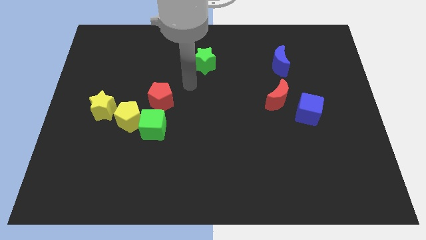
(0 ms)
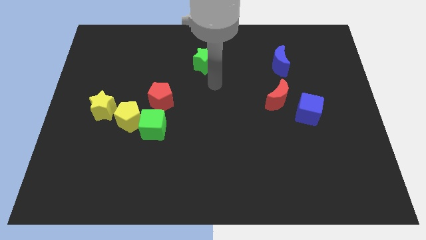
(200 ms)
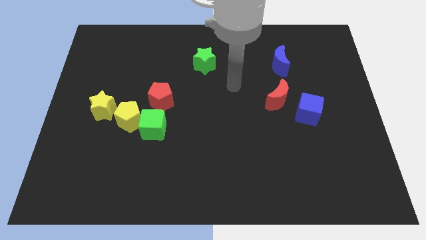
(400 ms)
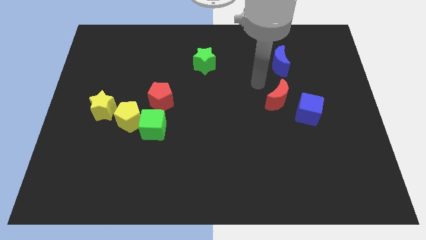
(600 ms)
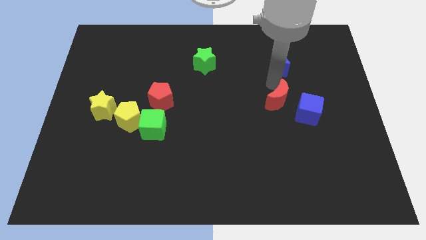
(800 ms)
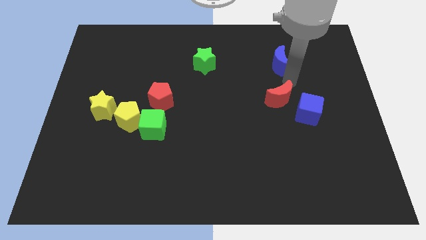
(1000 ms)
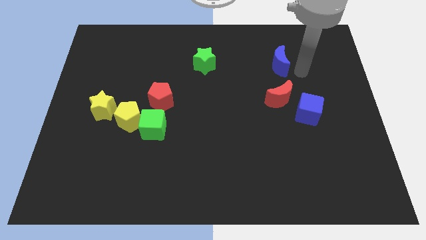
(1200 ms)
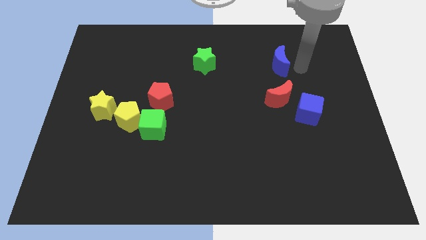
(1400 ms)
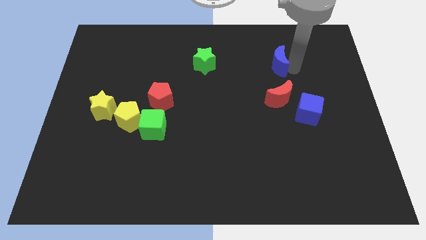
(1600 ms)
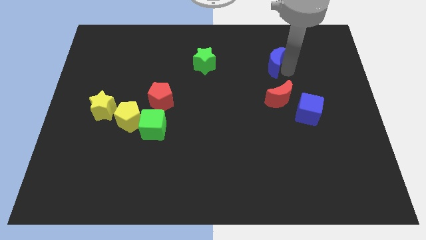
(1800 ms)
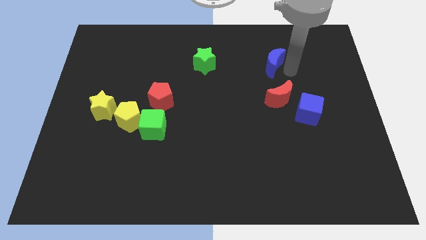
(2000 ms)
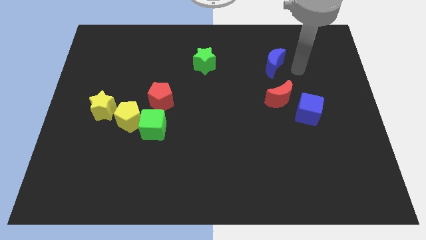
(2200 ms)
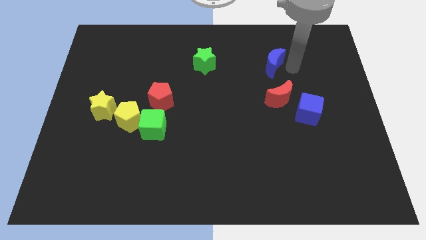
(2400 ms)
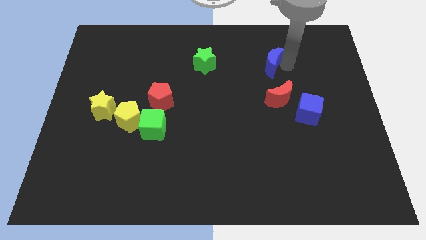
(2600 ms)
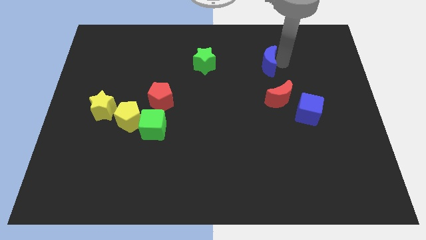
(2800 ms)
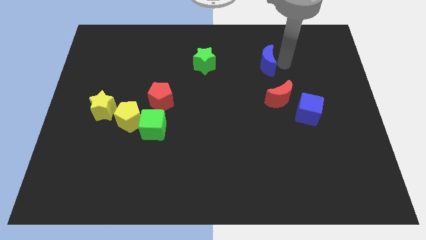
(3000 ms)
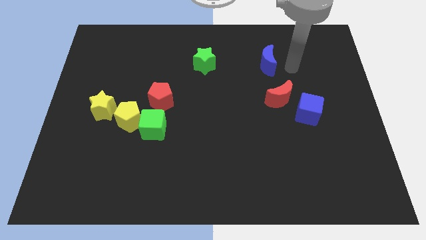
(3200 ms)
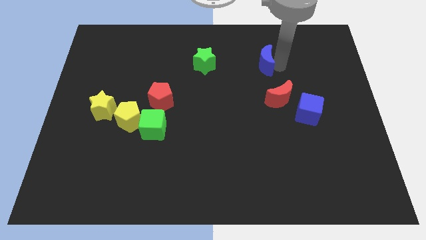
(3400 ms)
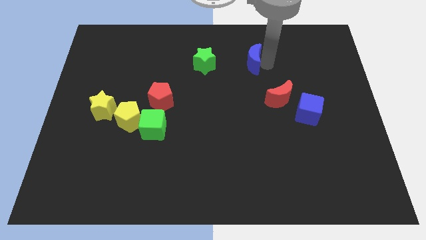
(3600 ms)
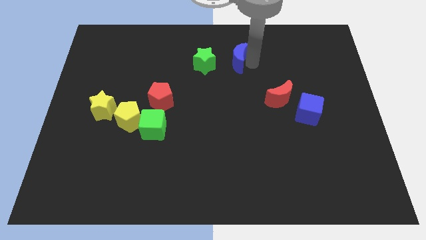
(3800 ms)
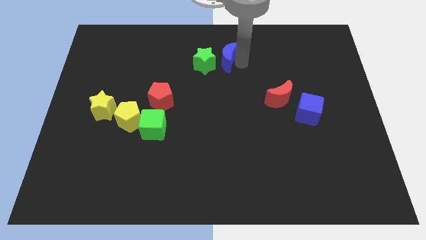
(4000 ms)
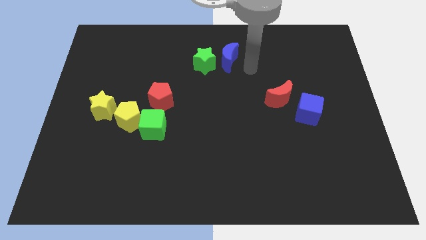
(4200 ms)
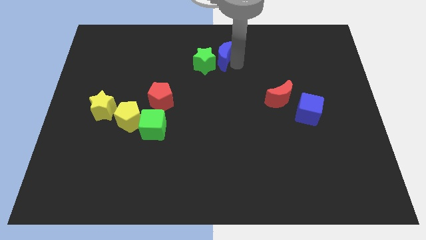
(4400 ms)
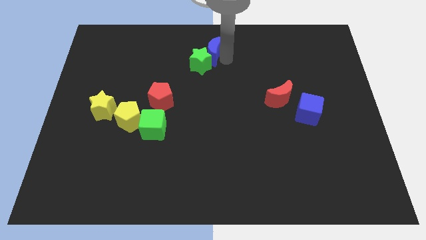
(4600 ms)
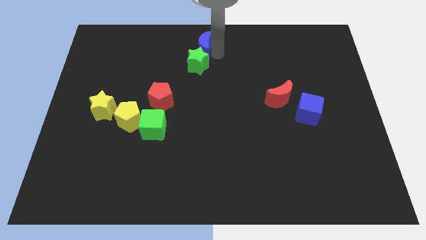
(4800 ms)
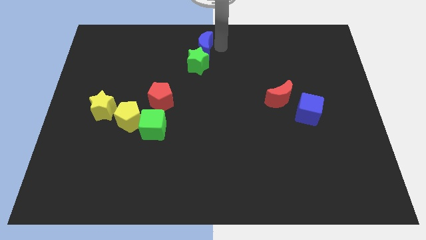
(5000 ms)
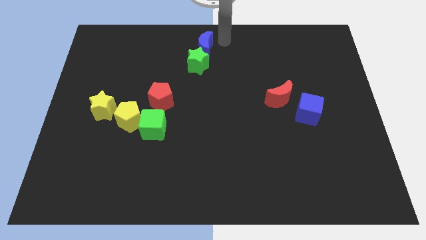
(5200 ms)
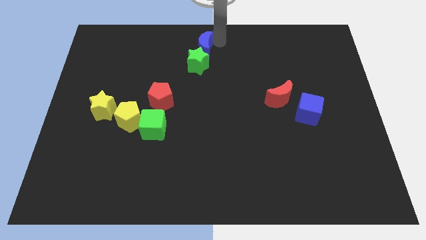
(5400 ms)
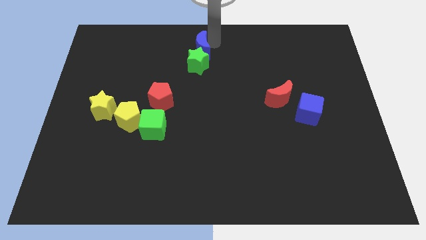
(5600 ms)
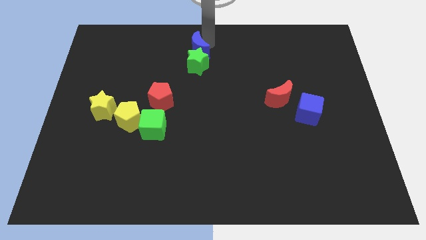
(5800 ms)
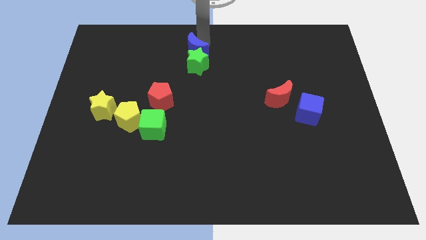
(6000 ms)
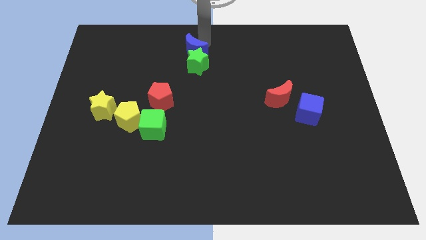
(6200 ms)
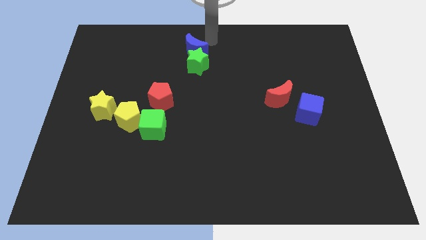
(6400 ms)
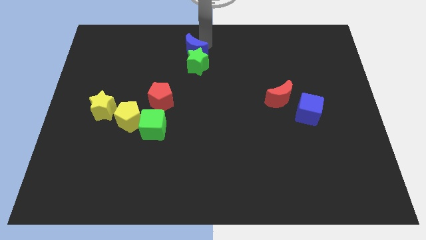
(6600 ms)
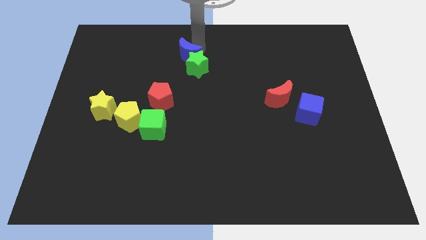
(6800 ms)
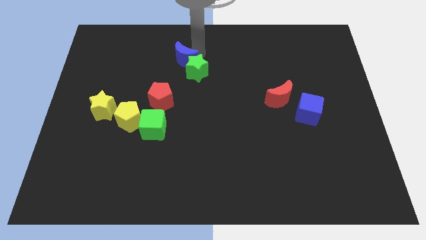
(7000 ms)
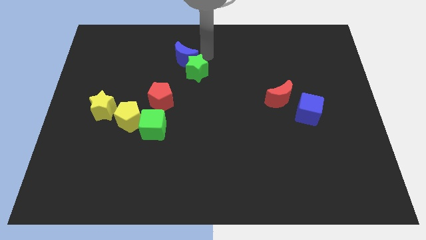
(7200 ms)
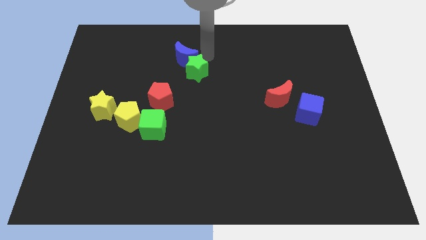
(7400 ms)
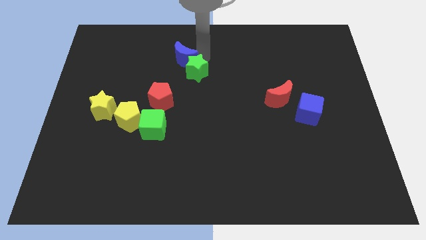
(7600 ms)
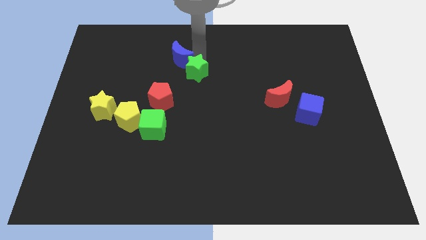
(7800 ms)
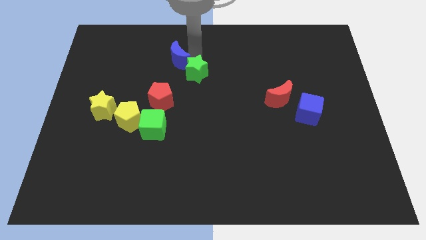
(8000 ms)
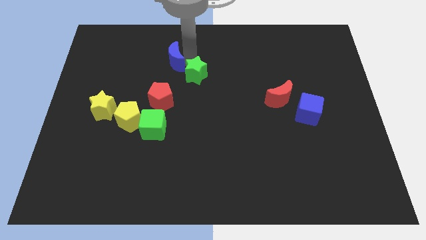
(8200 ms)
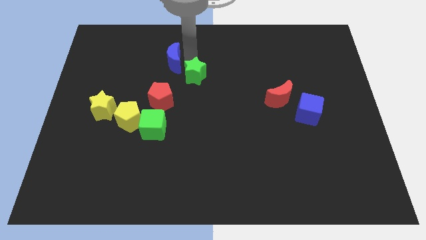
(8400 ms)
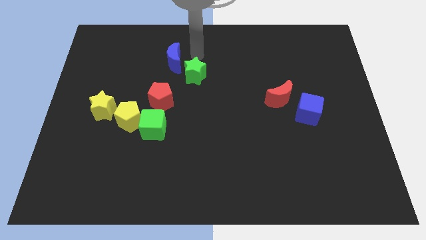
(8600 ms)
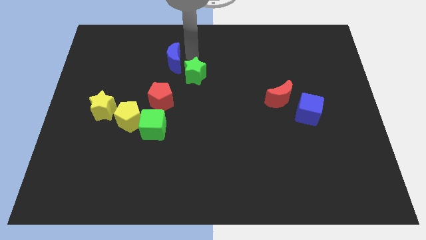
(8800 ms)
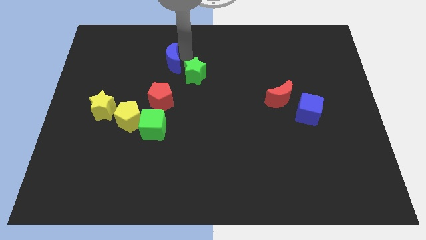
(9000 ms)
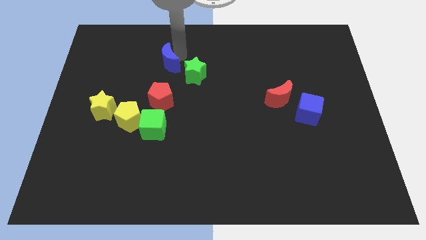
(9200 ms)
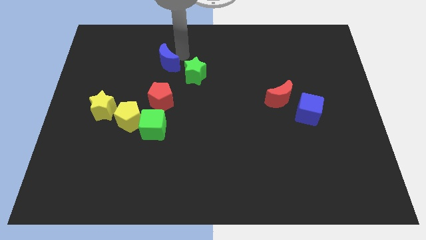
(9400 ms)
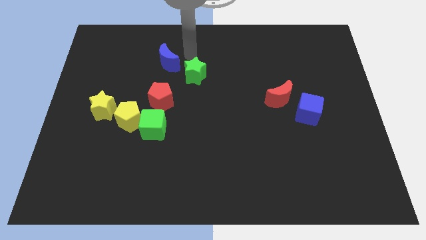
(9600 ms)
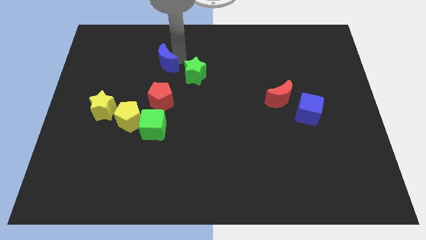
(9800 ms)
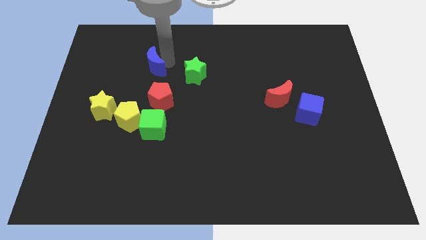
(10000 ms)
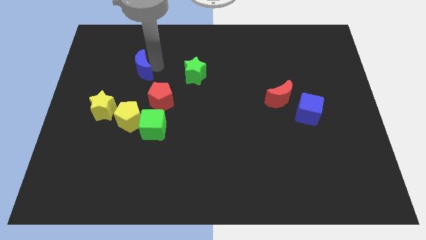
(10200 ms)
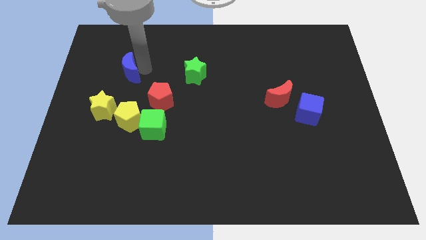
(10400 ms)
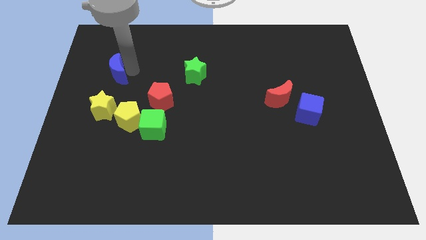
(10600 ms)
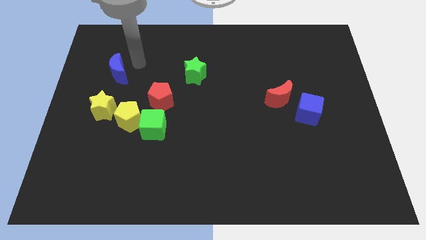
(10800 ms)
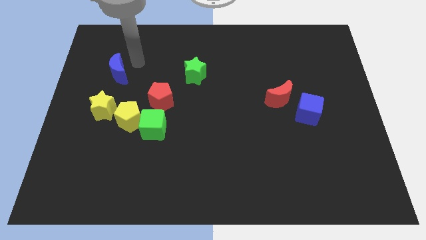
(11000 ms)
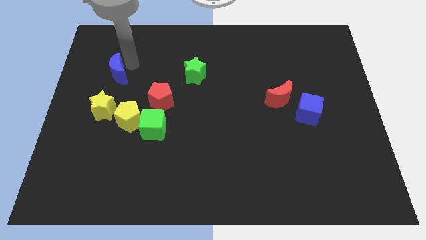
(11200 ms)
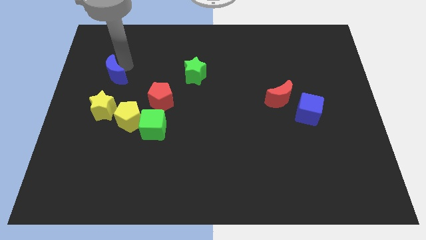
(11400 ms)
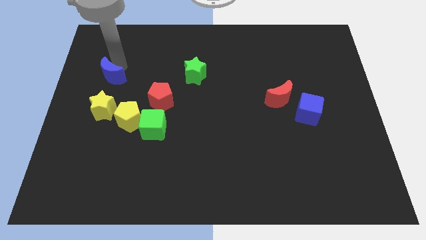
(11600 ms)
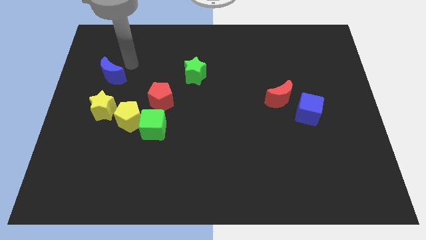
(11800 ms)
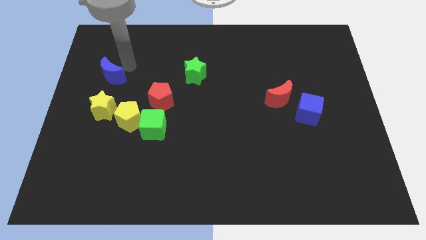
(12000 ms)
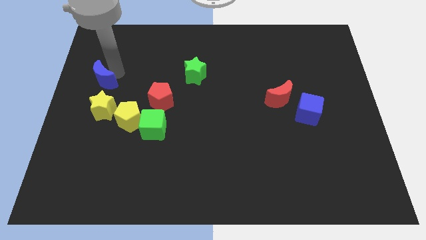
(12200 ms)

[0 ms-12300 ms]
push the blue moon to the left side of the board

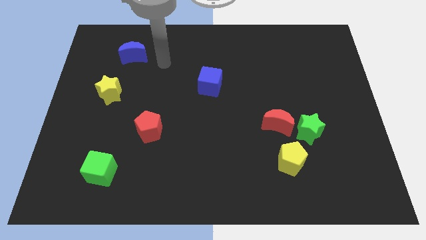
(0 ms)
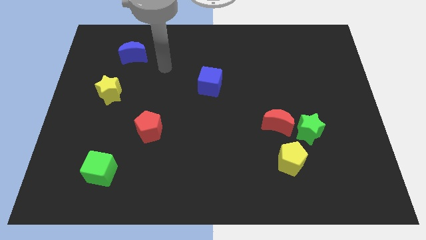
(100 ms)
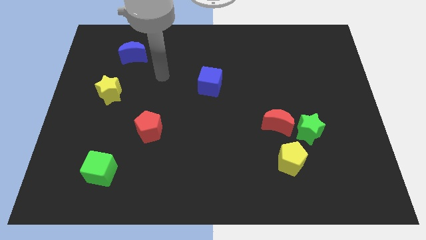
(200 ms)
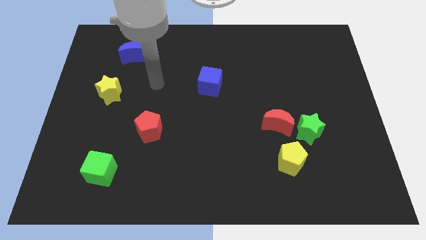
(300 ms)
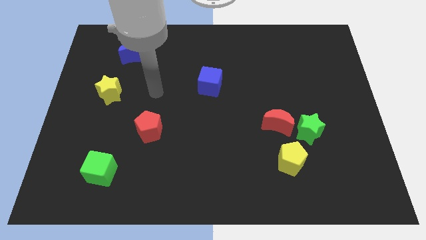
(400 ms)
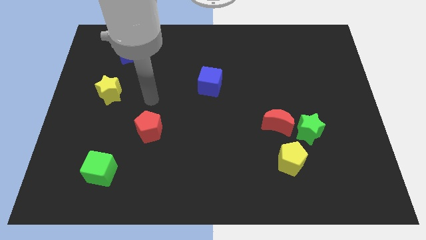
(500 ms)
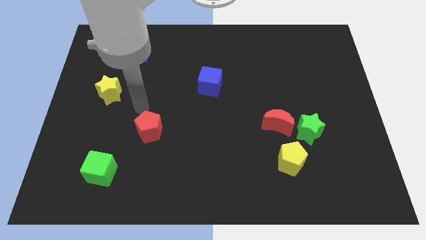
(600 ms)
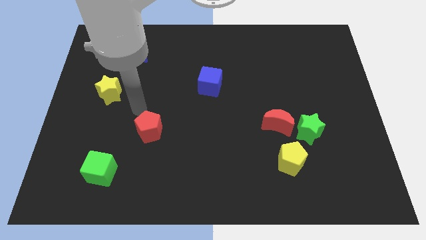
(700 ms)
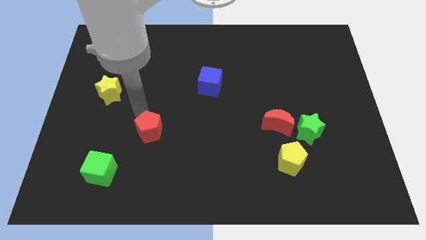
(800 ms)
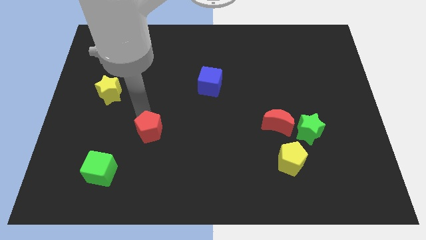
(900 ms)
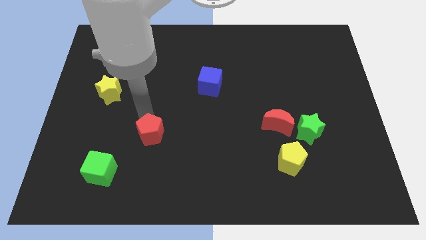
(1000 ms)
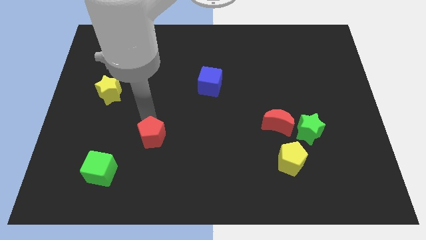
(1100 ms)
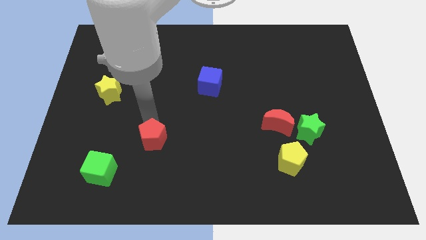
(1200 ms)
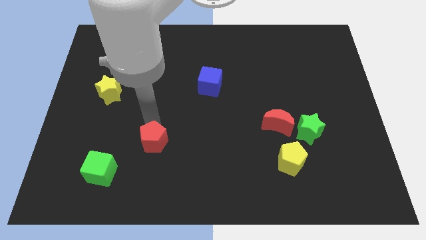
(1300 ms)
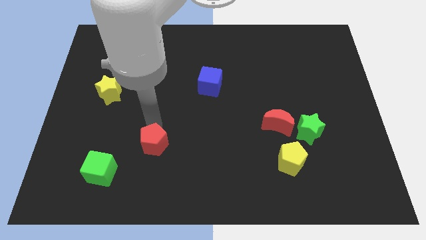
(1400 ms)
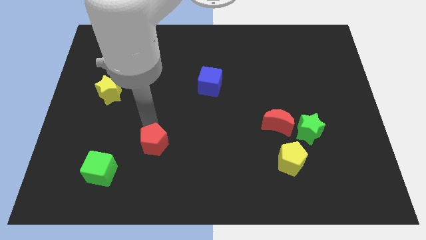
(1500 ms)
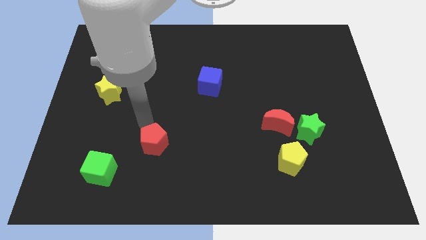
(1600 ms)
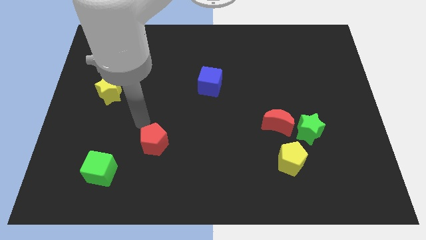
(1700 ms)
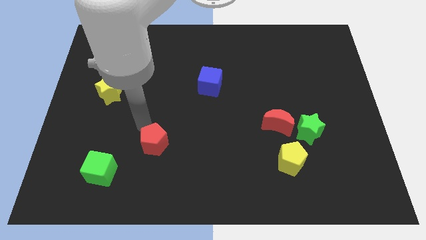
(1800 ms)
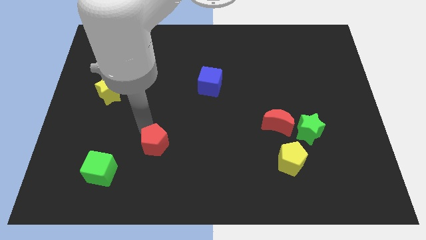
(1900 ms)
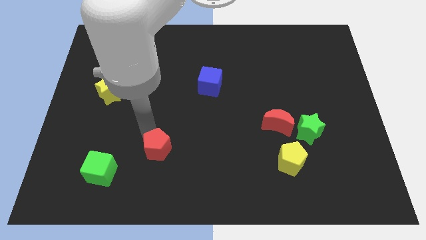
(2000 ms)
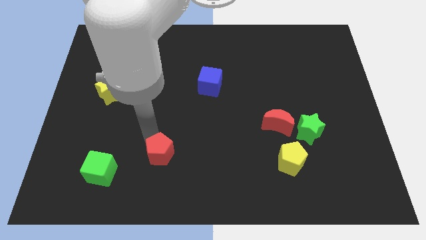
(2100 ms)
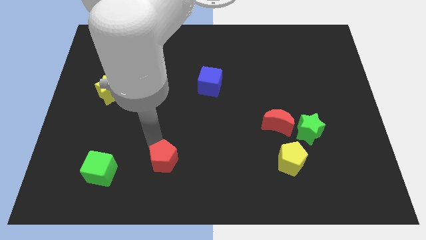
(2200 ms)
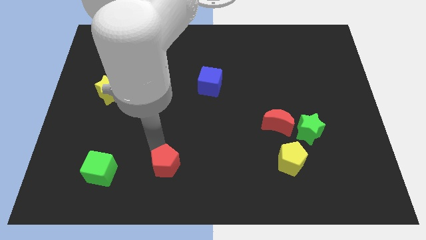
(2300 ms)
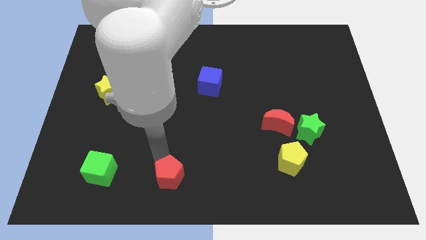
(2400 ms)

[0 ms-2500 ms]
push the red pentagon to the bottom side
